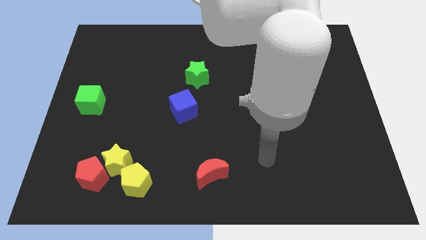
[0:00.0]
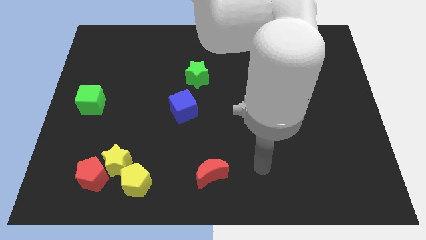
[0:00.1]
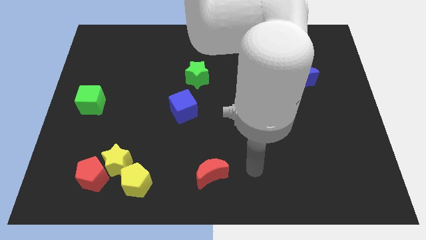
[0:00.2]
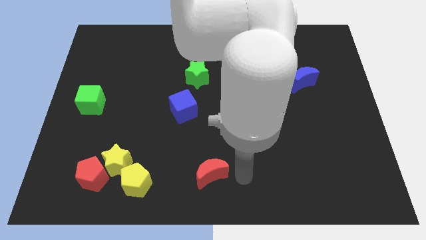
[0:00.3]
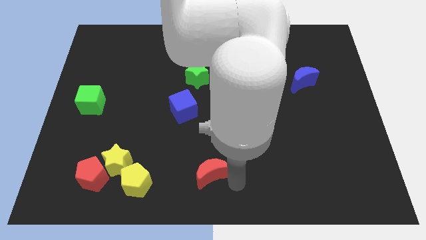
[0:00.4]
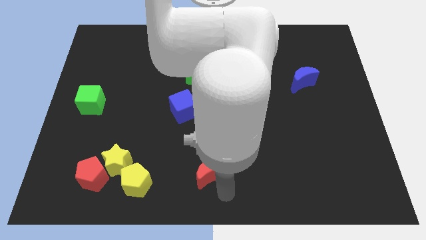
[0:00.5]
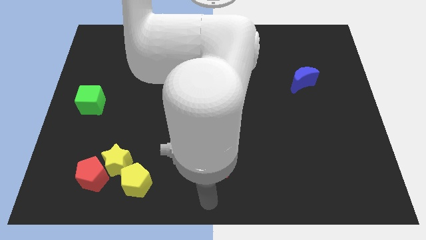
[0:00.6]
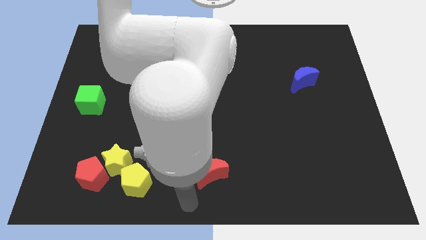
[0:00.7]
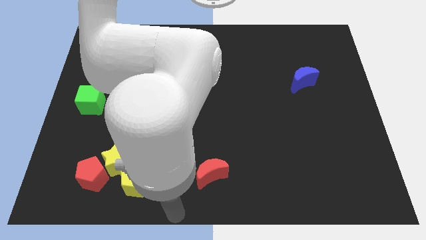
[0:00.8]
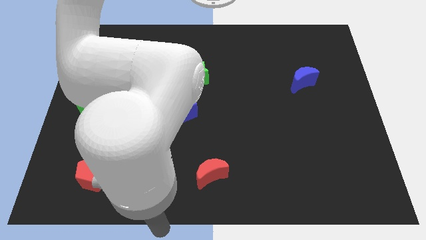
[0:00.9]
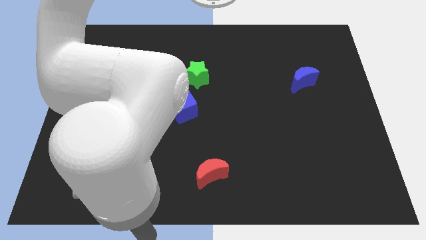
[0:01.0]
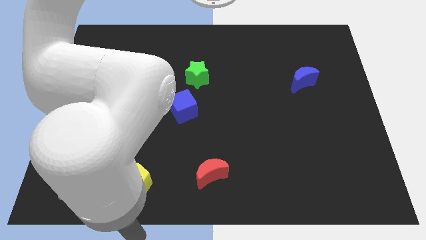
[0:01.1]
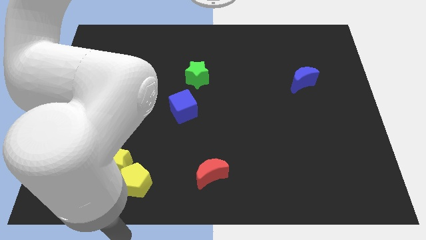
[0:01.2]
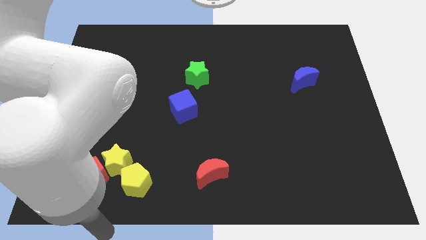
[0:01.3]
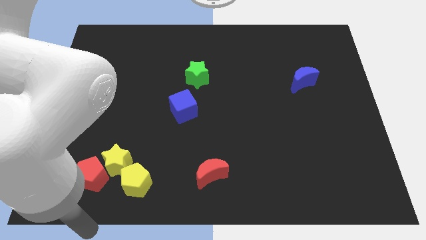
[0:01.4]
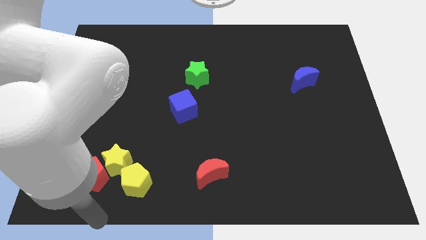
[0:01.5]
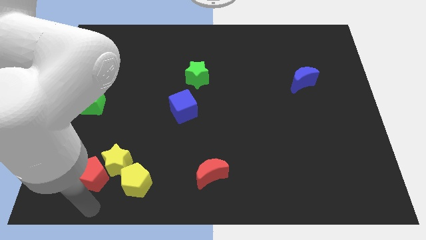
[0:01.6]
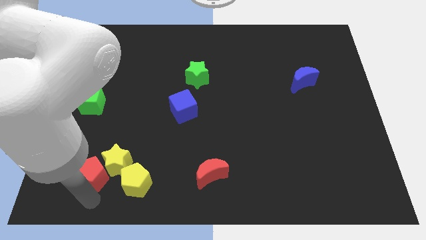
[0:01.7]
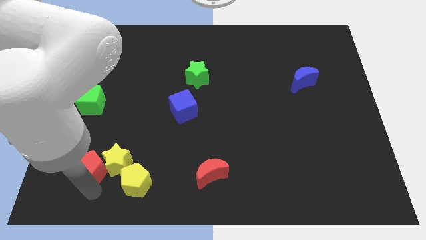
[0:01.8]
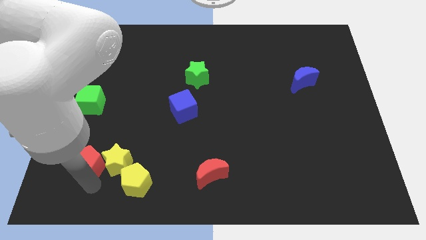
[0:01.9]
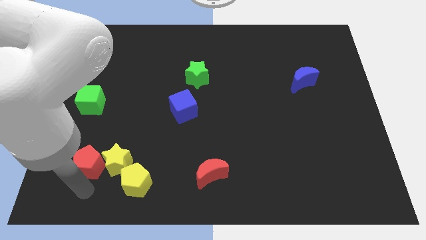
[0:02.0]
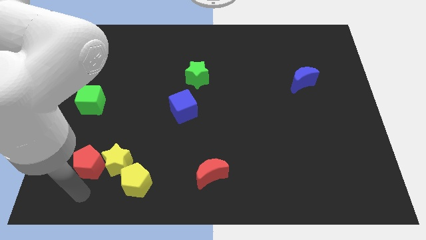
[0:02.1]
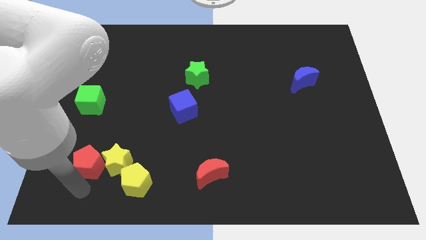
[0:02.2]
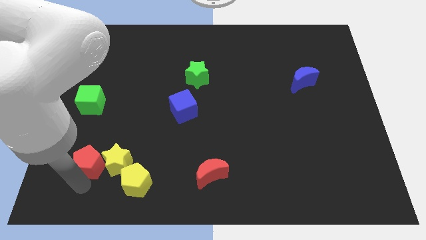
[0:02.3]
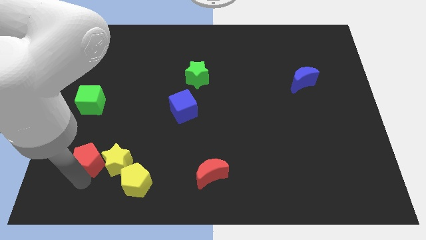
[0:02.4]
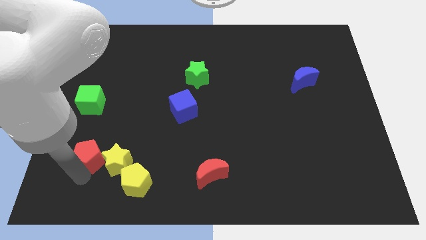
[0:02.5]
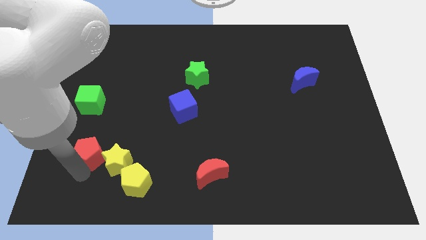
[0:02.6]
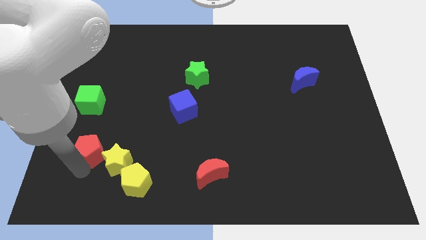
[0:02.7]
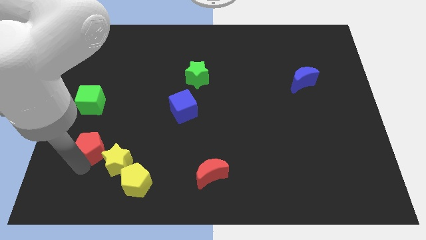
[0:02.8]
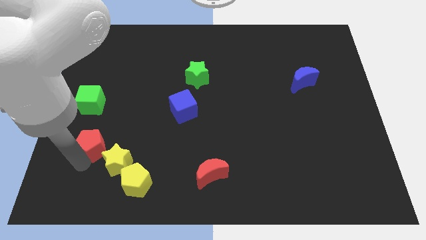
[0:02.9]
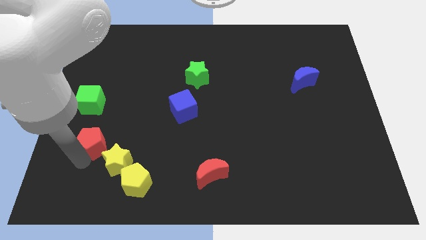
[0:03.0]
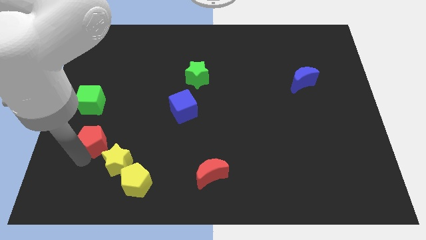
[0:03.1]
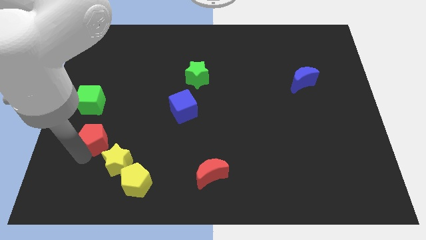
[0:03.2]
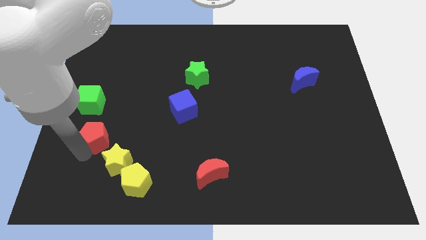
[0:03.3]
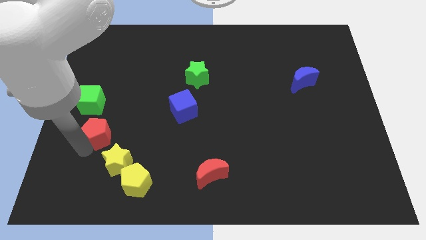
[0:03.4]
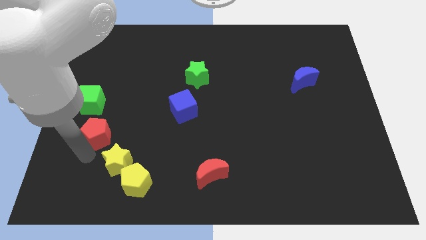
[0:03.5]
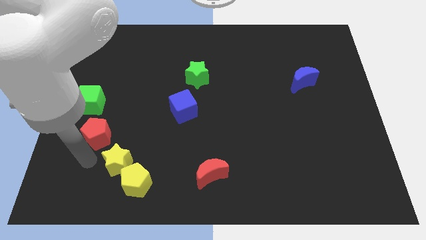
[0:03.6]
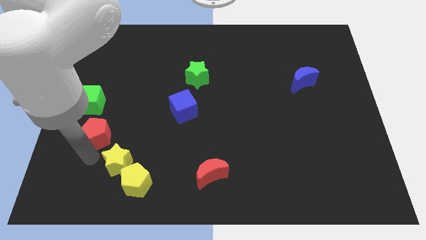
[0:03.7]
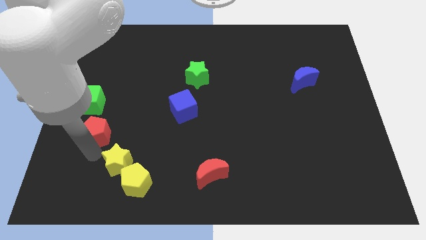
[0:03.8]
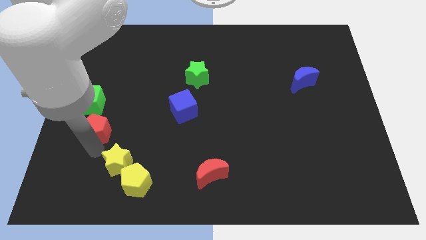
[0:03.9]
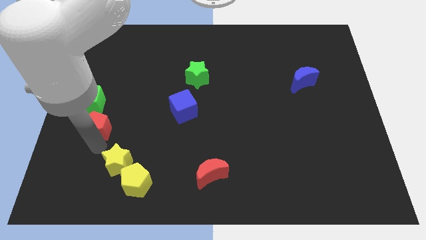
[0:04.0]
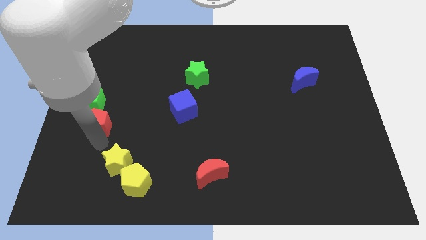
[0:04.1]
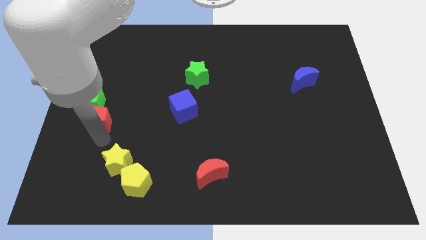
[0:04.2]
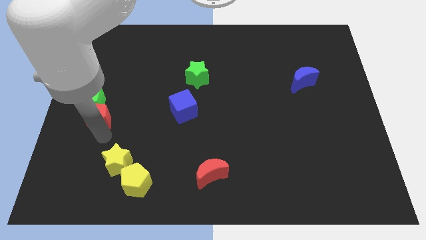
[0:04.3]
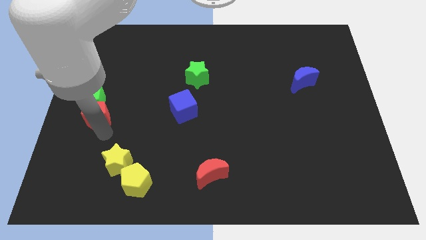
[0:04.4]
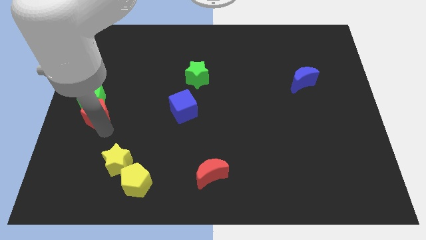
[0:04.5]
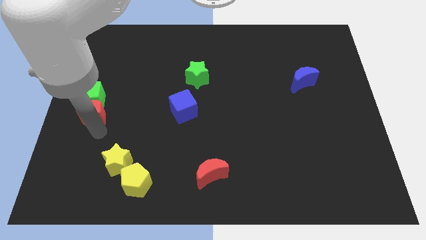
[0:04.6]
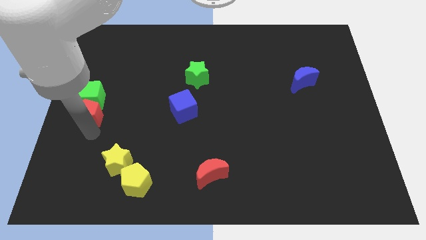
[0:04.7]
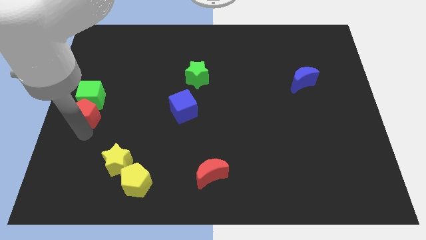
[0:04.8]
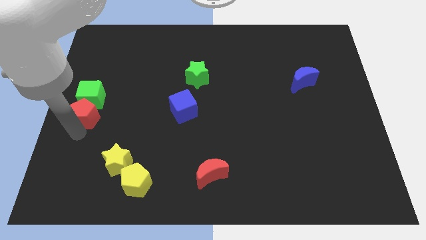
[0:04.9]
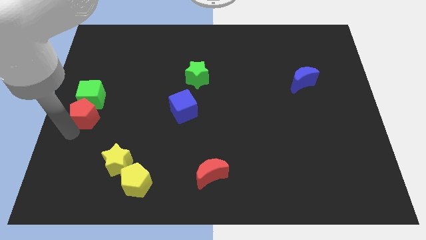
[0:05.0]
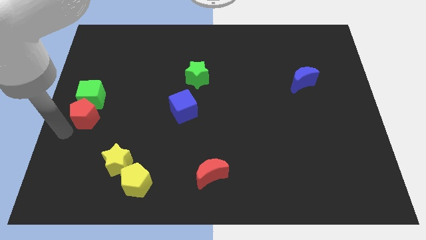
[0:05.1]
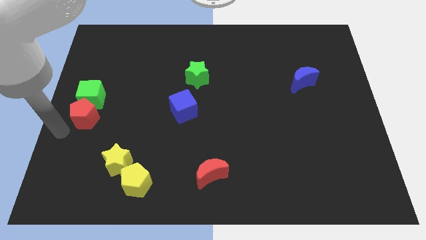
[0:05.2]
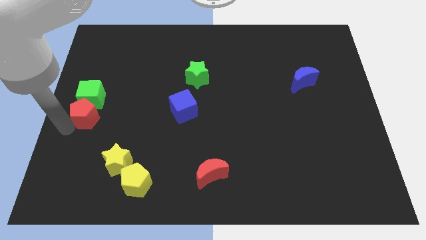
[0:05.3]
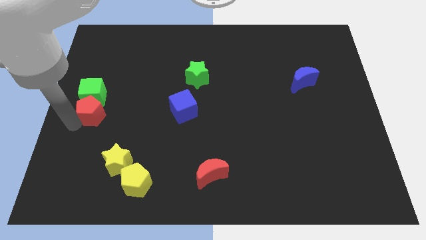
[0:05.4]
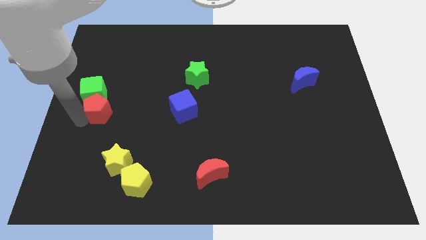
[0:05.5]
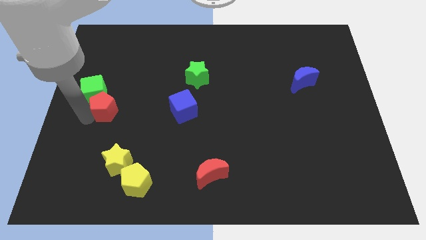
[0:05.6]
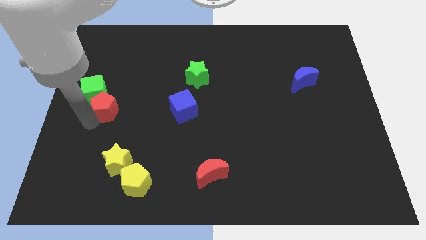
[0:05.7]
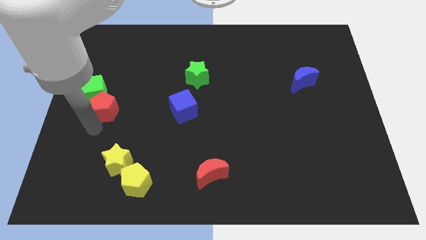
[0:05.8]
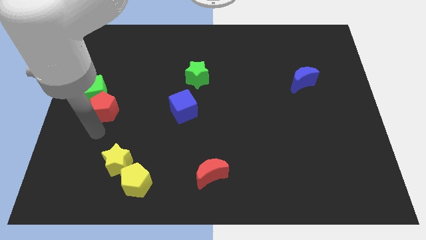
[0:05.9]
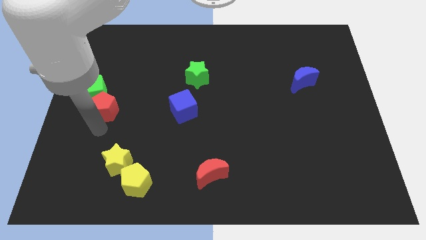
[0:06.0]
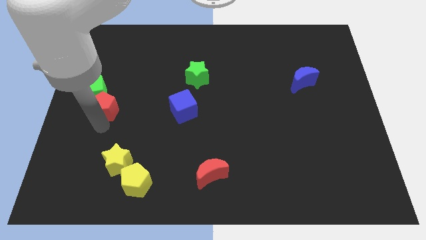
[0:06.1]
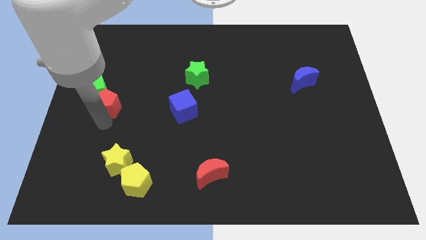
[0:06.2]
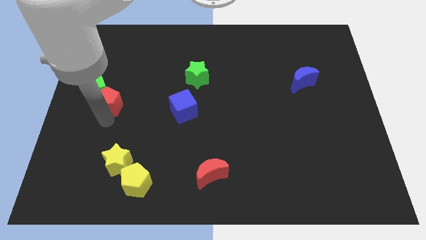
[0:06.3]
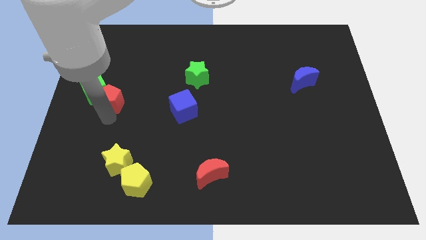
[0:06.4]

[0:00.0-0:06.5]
slide the red pentagon up

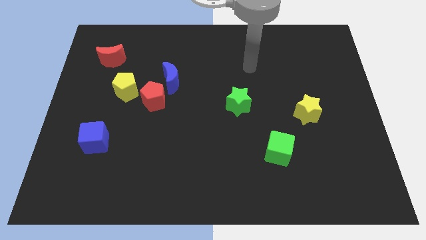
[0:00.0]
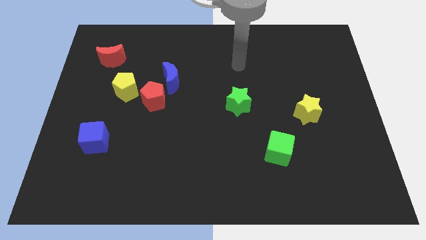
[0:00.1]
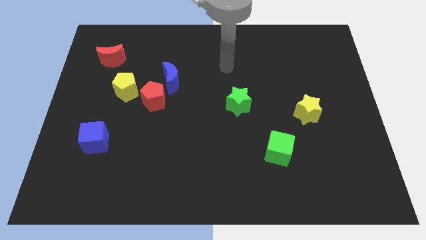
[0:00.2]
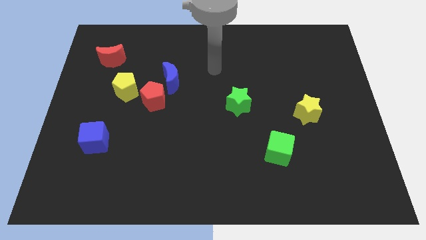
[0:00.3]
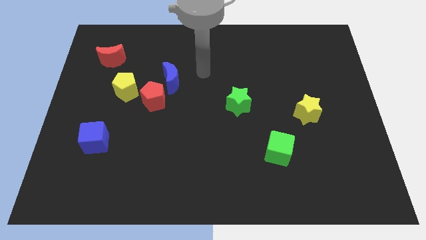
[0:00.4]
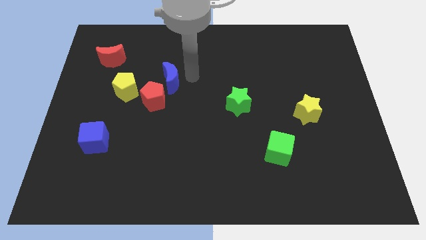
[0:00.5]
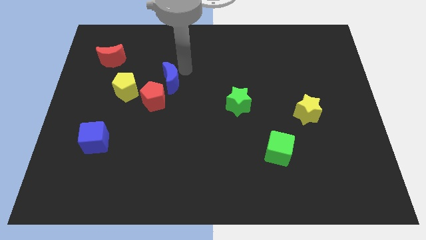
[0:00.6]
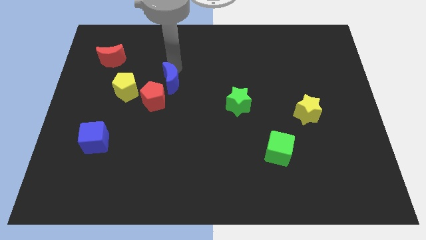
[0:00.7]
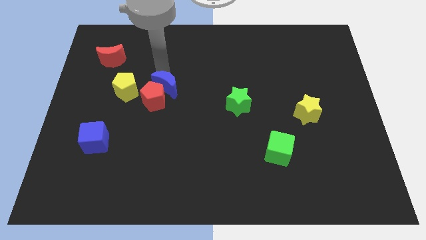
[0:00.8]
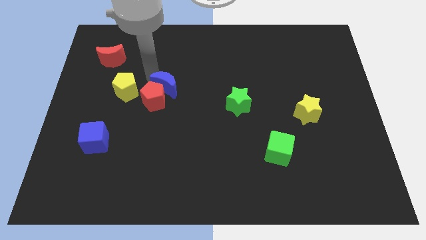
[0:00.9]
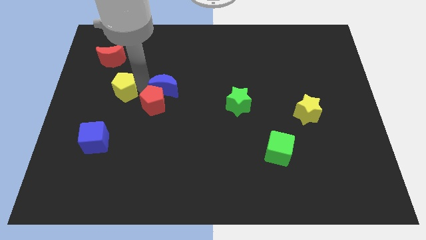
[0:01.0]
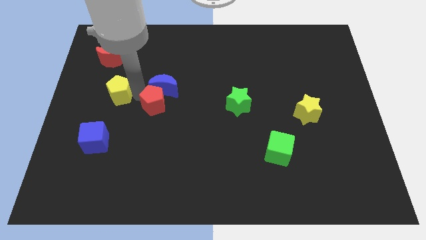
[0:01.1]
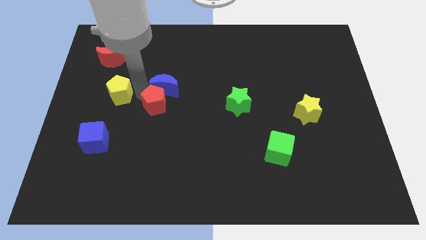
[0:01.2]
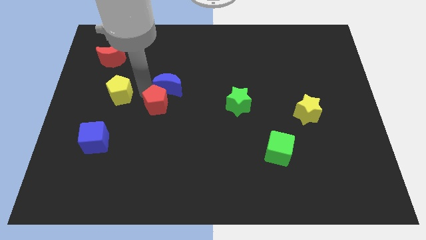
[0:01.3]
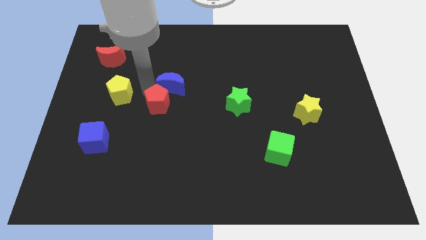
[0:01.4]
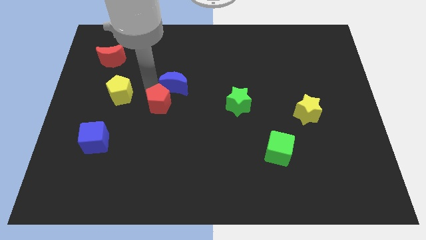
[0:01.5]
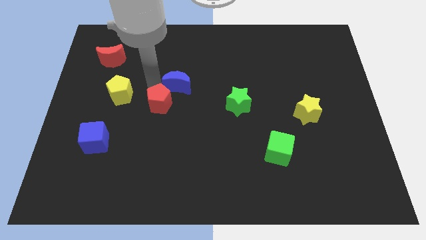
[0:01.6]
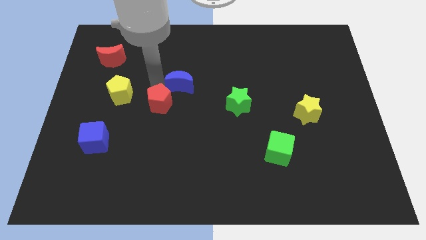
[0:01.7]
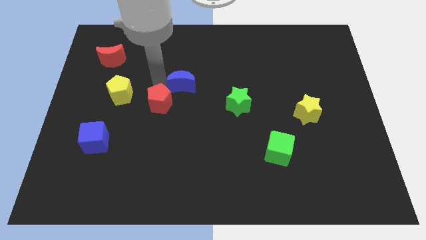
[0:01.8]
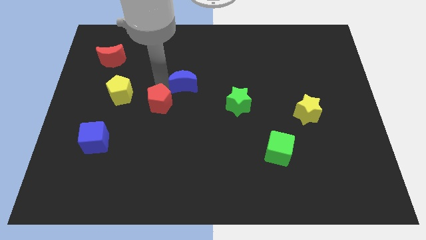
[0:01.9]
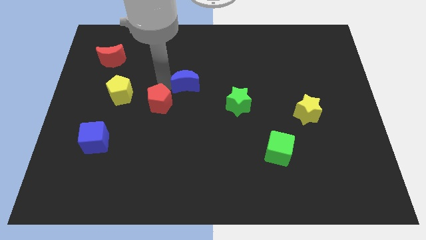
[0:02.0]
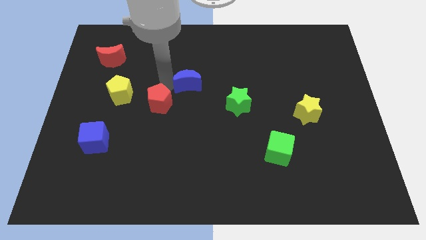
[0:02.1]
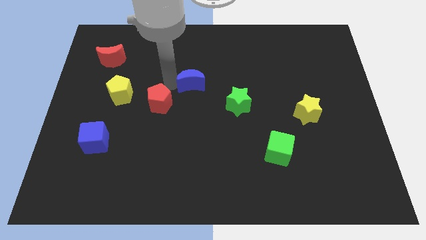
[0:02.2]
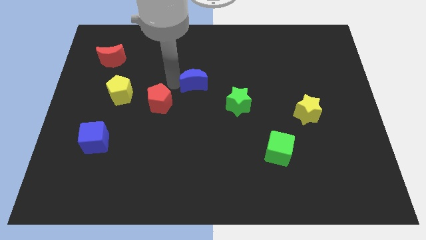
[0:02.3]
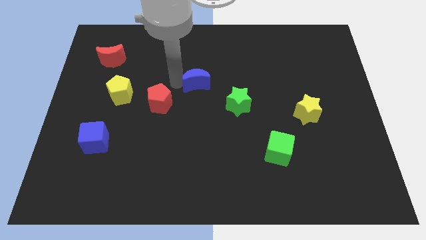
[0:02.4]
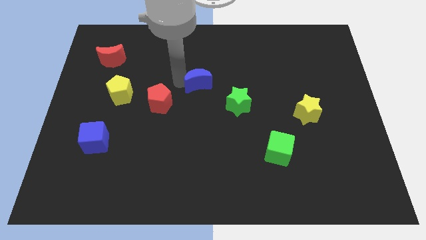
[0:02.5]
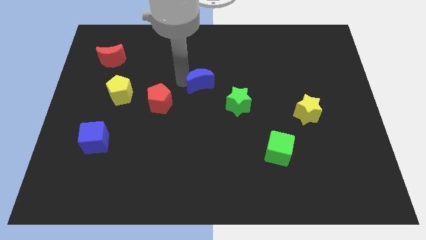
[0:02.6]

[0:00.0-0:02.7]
slightly push the blue moon to the right
